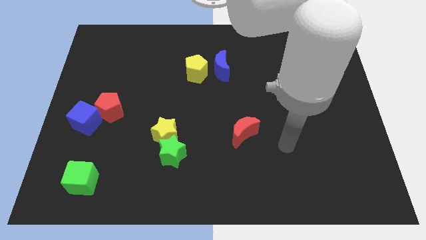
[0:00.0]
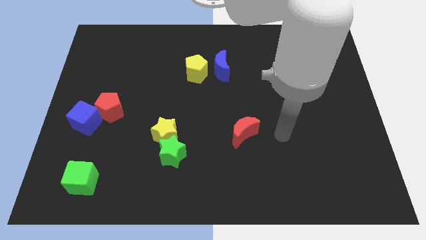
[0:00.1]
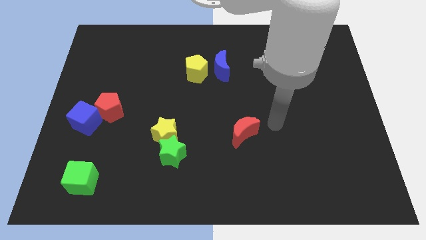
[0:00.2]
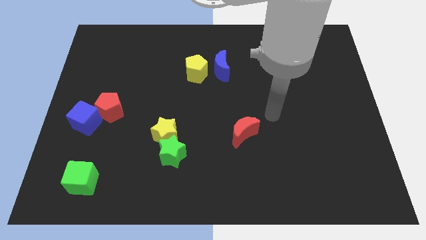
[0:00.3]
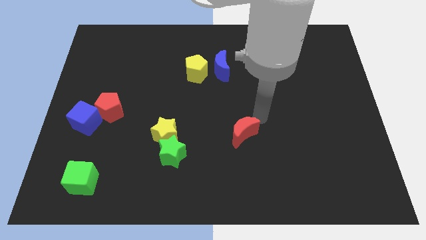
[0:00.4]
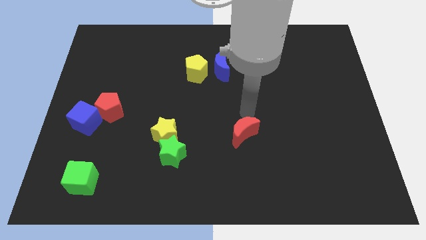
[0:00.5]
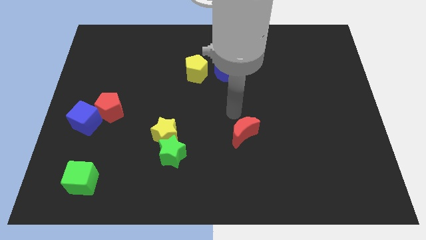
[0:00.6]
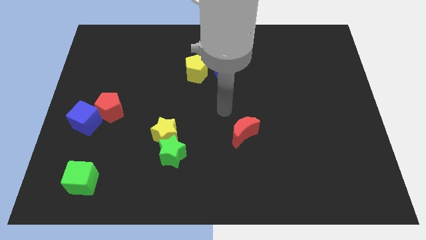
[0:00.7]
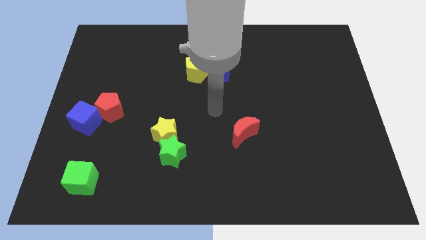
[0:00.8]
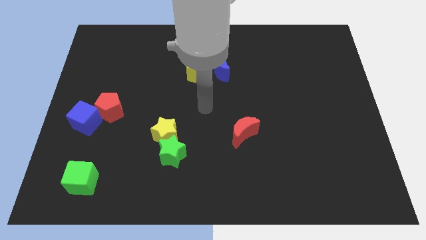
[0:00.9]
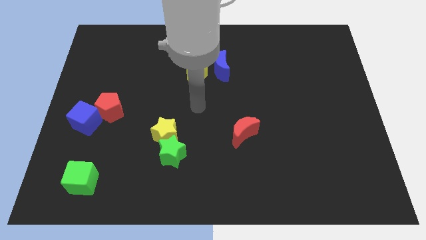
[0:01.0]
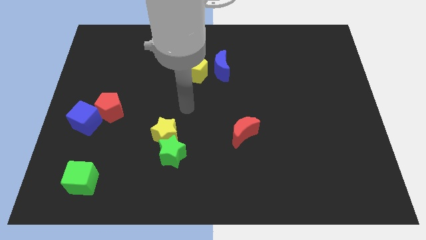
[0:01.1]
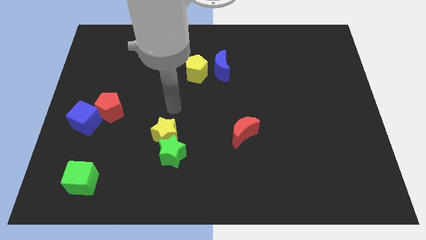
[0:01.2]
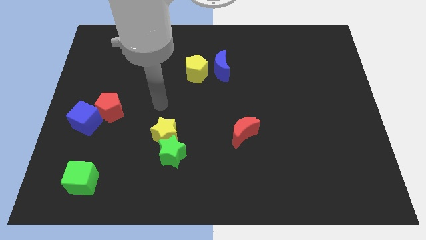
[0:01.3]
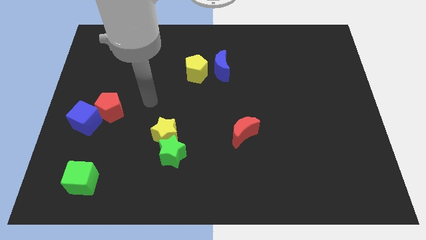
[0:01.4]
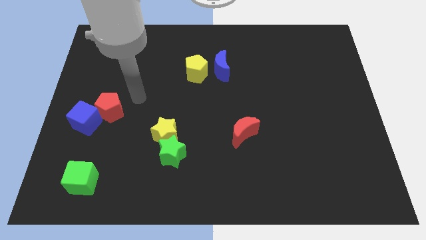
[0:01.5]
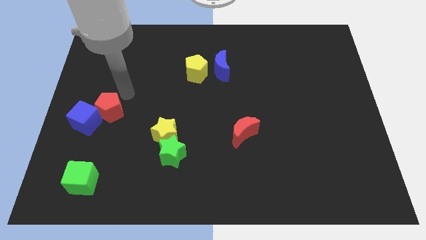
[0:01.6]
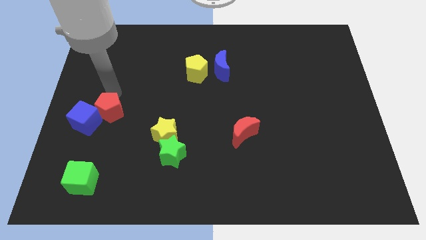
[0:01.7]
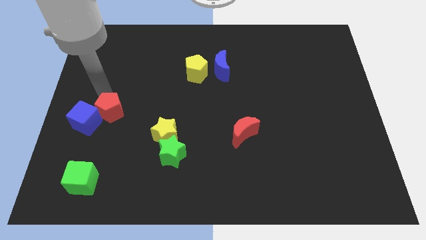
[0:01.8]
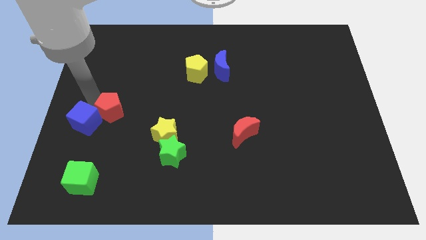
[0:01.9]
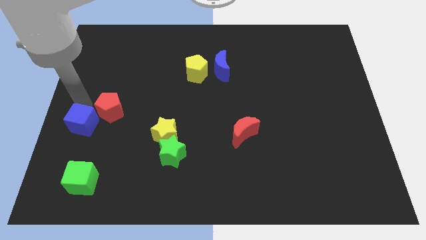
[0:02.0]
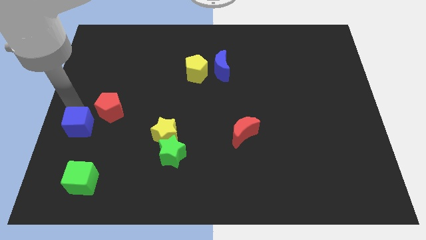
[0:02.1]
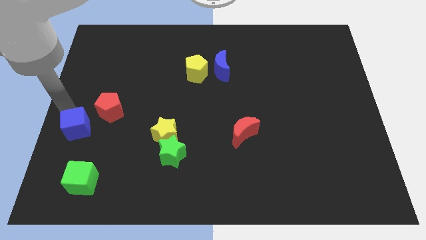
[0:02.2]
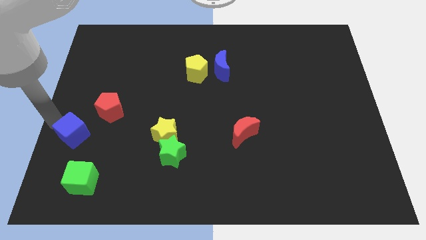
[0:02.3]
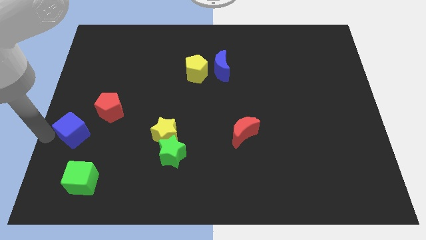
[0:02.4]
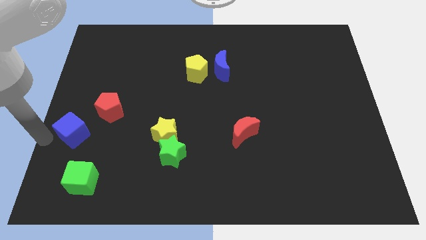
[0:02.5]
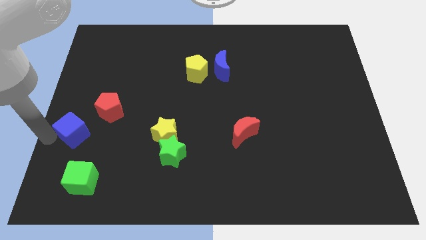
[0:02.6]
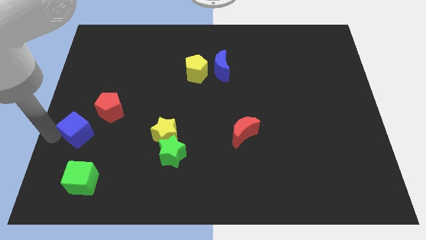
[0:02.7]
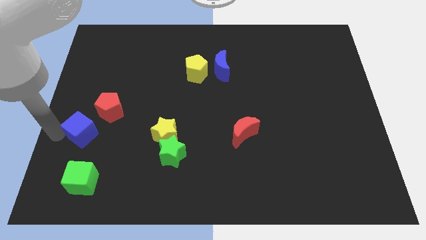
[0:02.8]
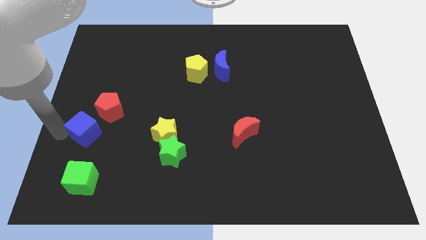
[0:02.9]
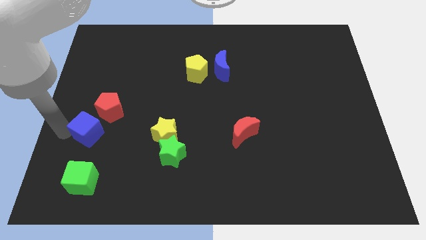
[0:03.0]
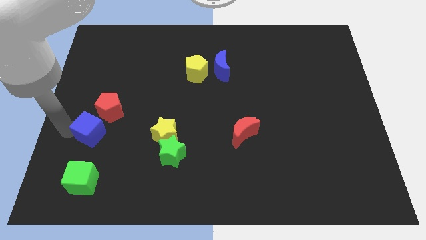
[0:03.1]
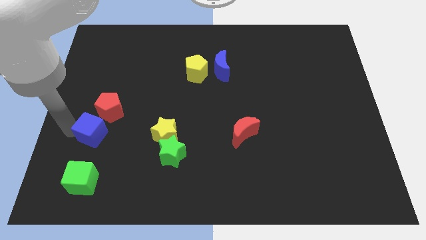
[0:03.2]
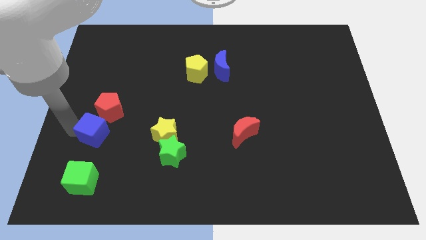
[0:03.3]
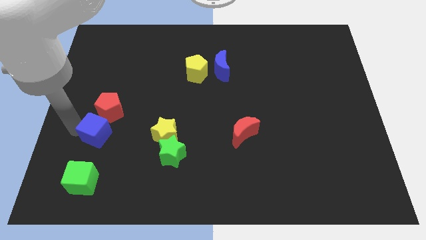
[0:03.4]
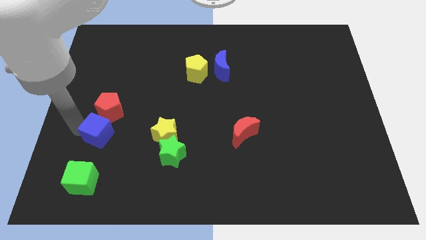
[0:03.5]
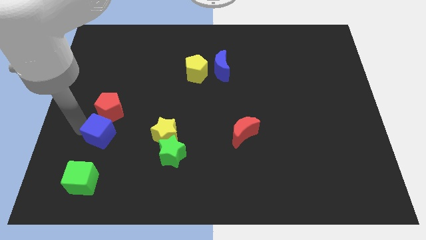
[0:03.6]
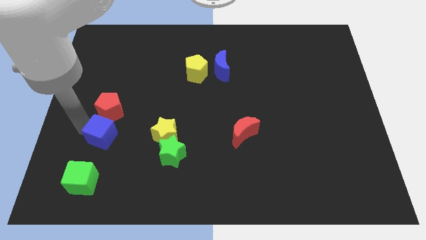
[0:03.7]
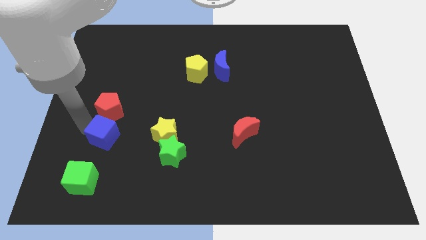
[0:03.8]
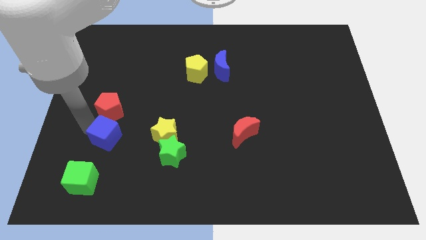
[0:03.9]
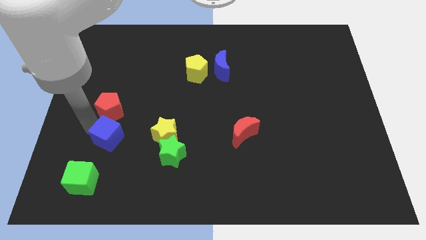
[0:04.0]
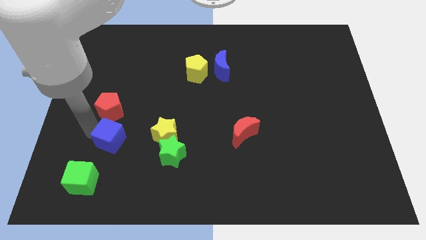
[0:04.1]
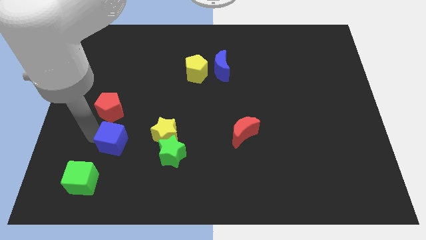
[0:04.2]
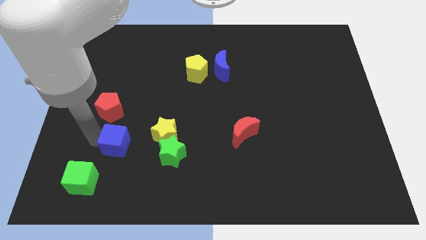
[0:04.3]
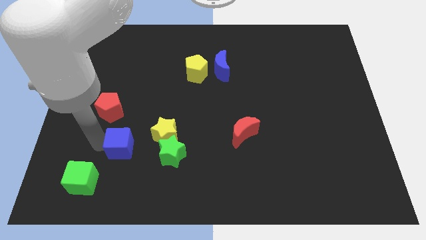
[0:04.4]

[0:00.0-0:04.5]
slightly slide the blue cube to the right

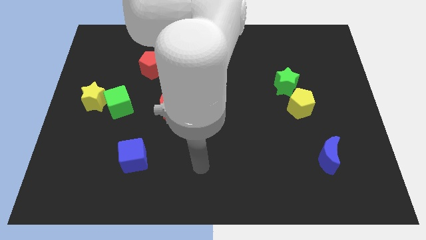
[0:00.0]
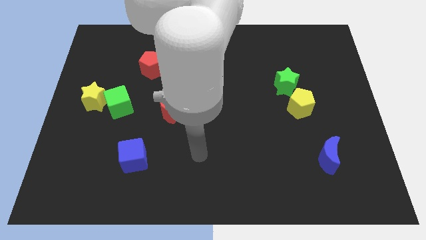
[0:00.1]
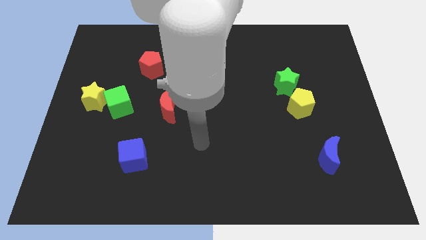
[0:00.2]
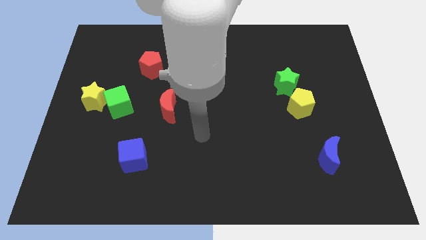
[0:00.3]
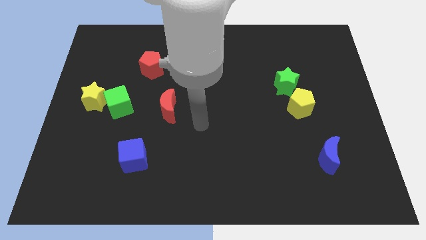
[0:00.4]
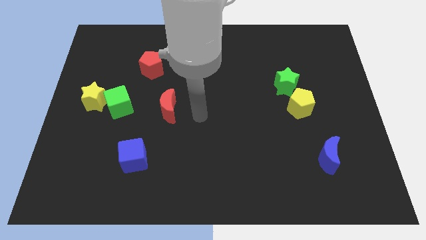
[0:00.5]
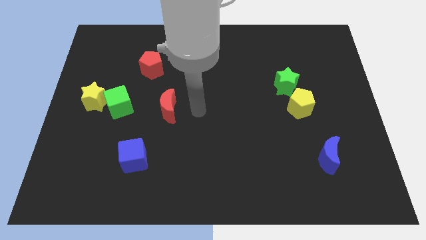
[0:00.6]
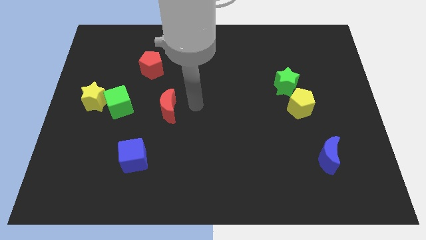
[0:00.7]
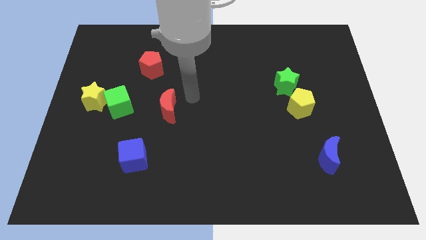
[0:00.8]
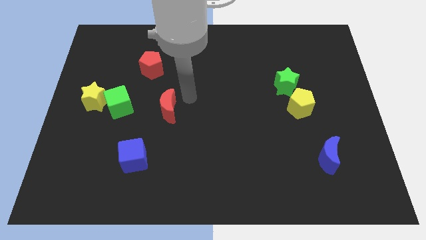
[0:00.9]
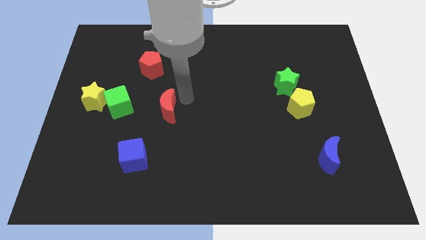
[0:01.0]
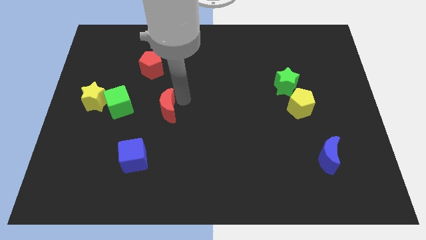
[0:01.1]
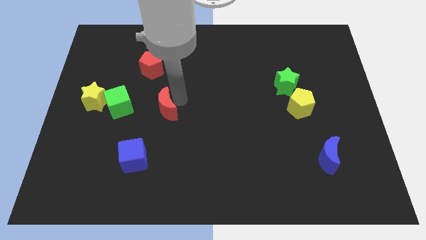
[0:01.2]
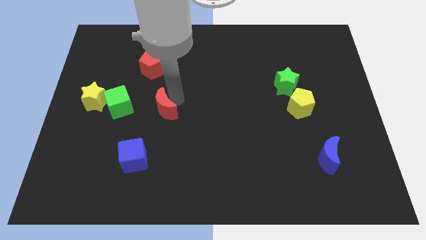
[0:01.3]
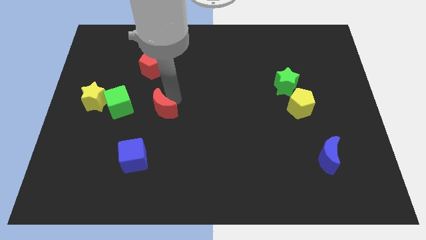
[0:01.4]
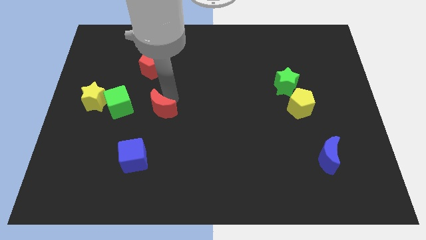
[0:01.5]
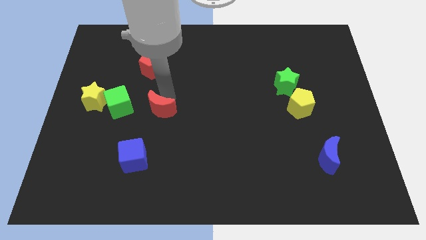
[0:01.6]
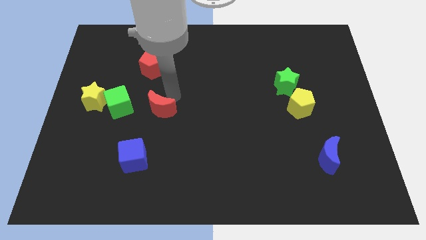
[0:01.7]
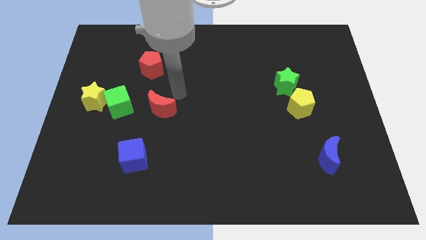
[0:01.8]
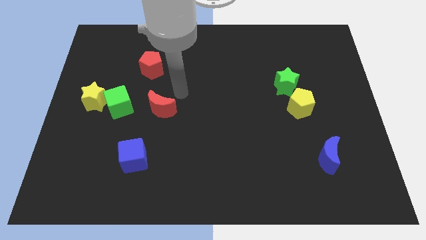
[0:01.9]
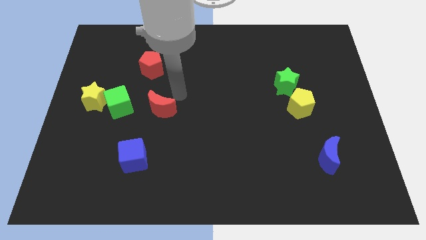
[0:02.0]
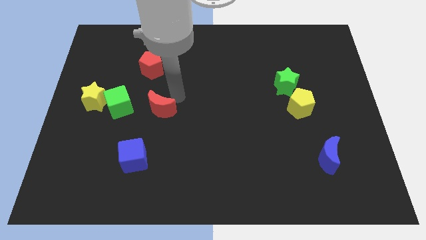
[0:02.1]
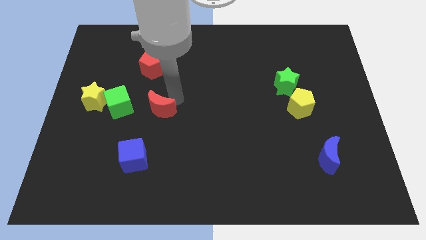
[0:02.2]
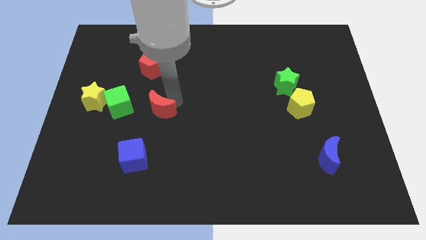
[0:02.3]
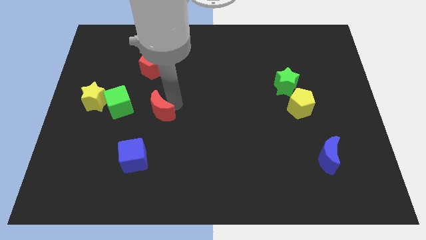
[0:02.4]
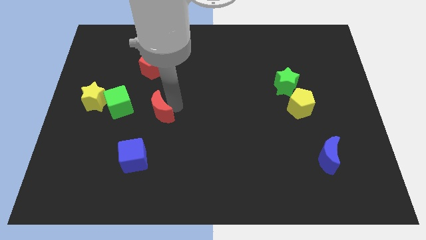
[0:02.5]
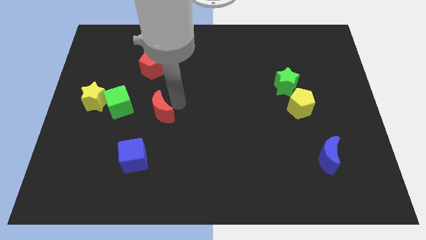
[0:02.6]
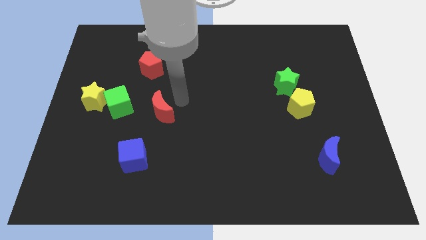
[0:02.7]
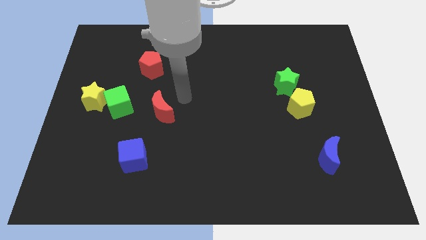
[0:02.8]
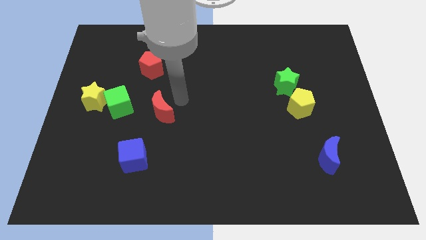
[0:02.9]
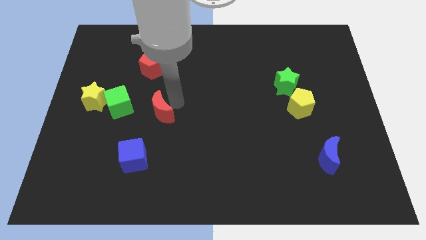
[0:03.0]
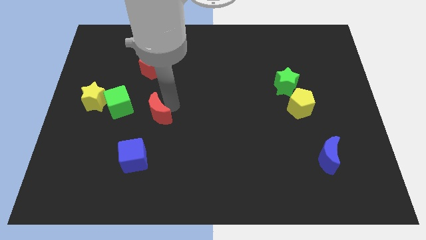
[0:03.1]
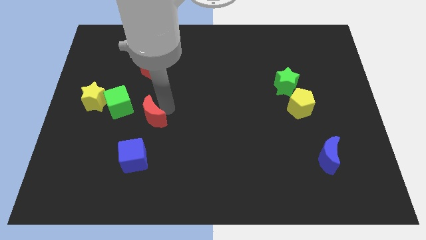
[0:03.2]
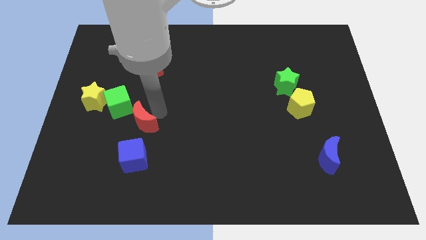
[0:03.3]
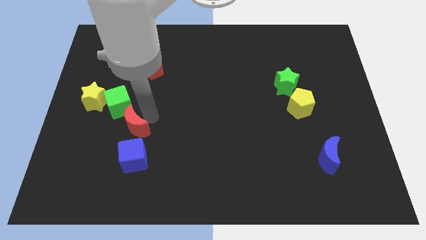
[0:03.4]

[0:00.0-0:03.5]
push the red moon a little bit diagonally downwards and left

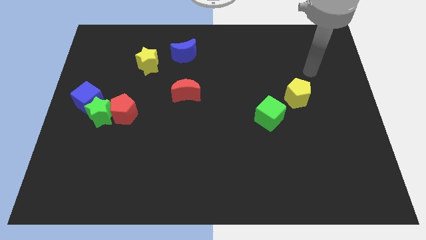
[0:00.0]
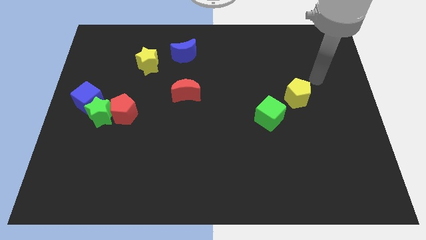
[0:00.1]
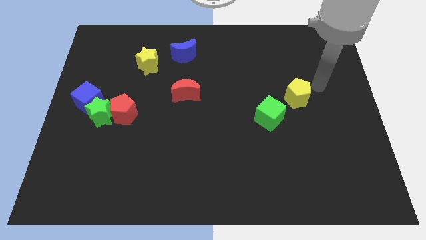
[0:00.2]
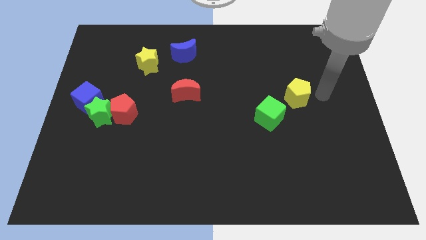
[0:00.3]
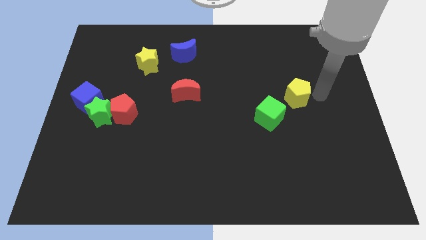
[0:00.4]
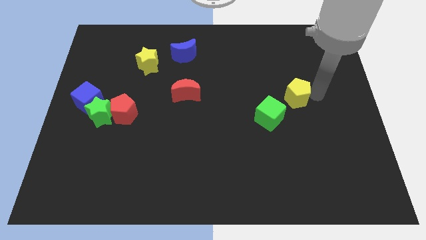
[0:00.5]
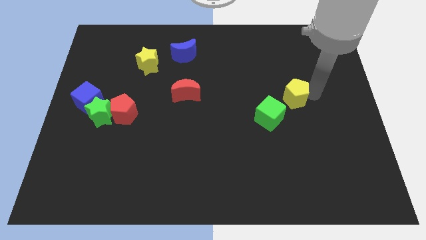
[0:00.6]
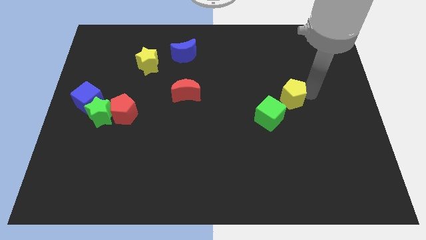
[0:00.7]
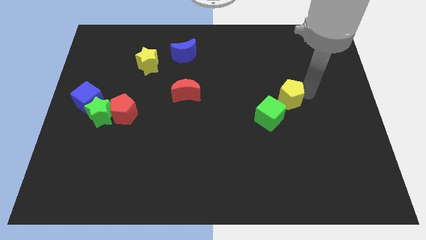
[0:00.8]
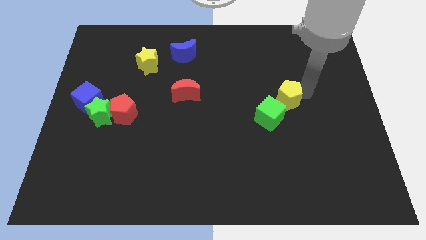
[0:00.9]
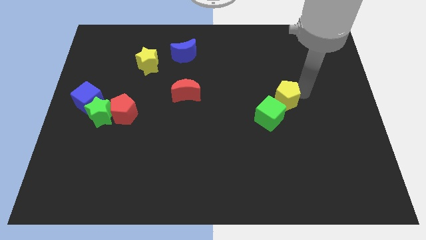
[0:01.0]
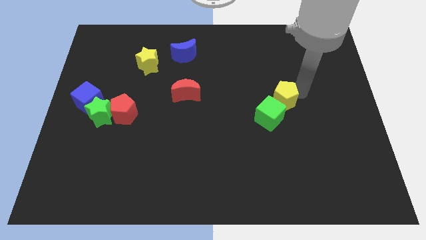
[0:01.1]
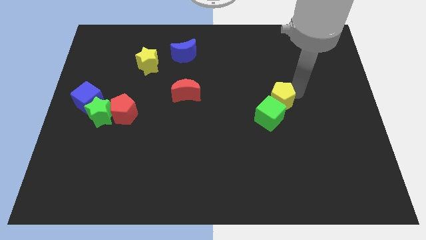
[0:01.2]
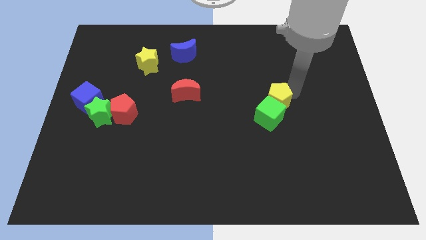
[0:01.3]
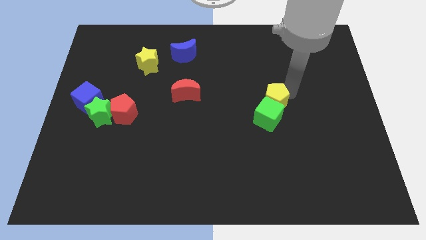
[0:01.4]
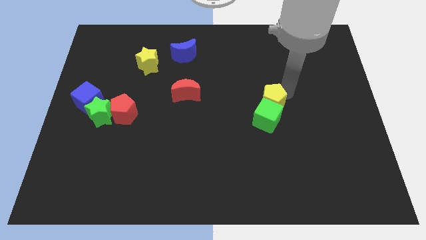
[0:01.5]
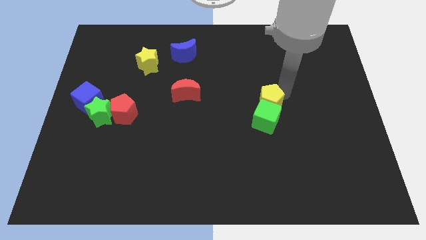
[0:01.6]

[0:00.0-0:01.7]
slightly push the yellow pentagon to the left
